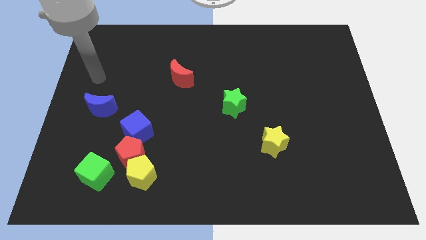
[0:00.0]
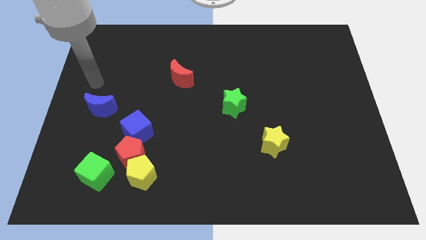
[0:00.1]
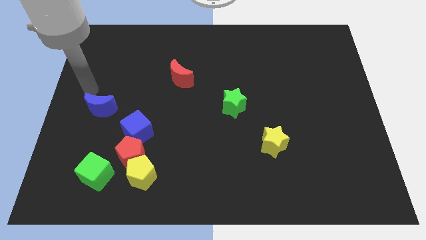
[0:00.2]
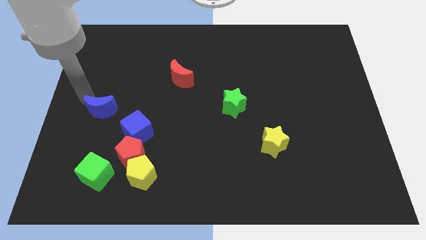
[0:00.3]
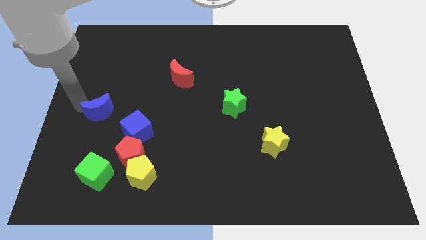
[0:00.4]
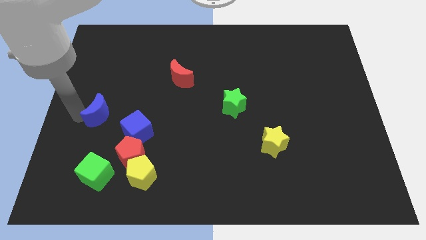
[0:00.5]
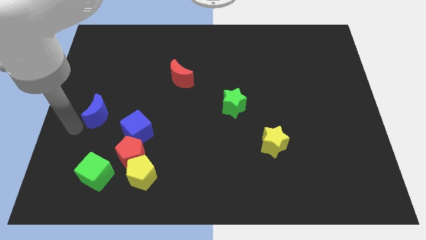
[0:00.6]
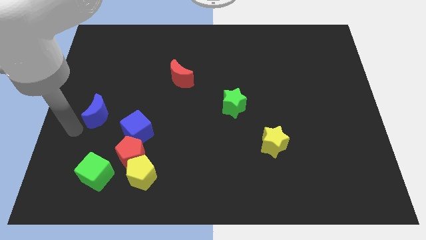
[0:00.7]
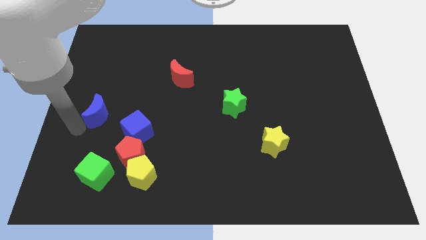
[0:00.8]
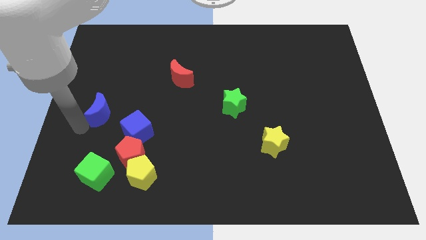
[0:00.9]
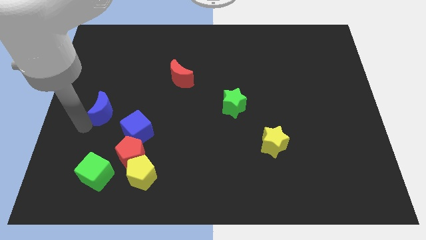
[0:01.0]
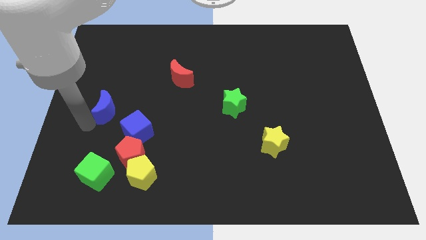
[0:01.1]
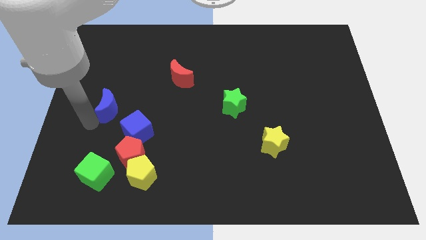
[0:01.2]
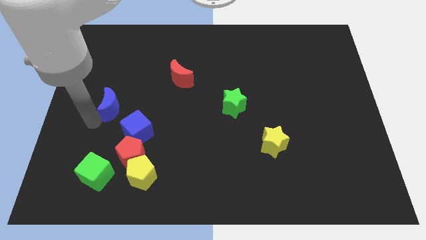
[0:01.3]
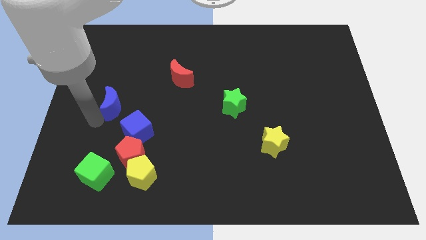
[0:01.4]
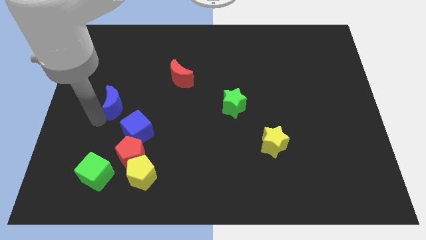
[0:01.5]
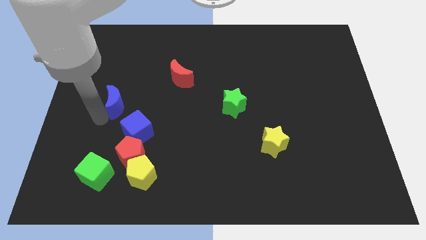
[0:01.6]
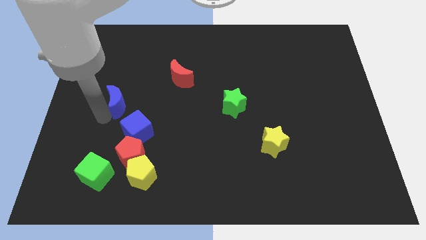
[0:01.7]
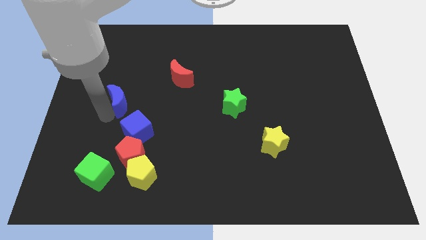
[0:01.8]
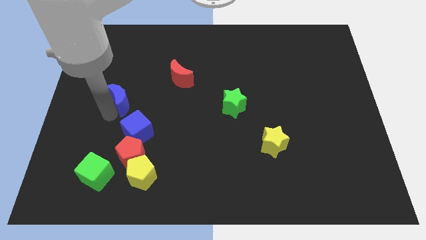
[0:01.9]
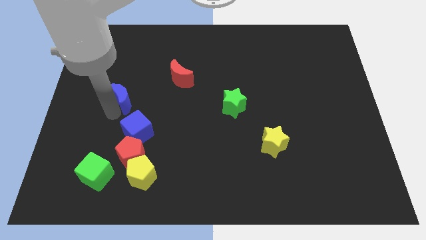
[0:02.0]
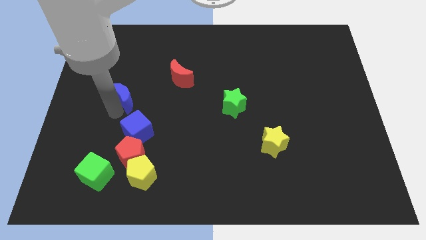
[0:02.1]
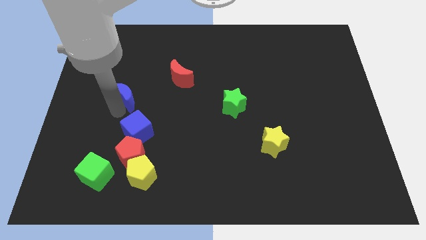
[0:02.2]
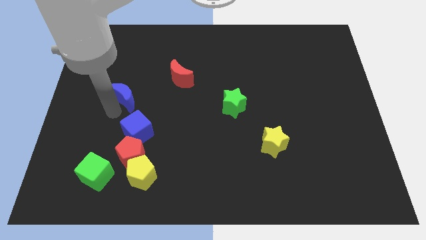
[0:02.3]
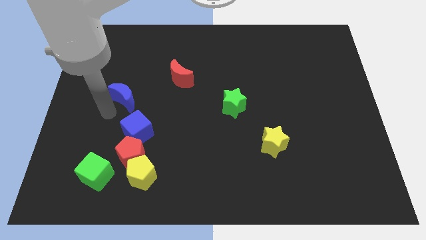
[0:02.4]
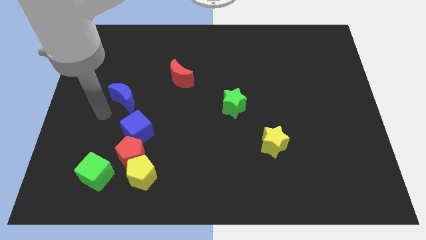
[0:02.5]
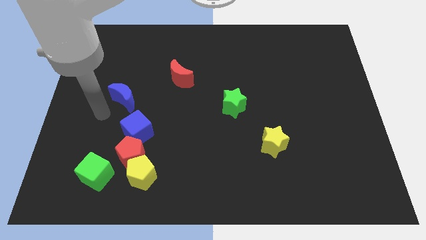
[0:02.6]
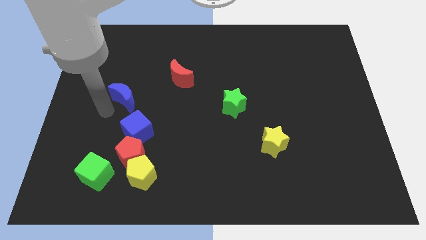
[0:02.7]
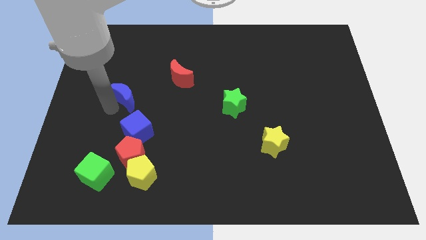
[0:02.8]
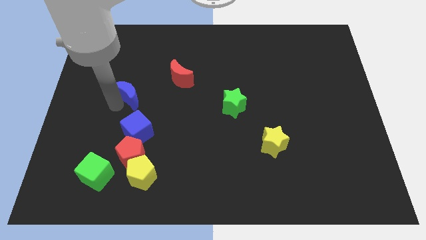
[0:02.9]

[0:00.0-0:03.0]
push the blue moon upwards and to the right slightly

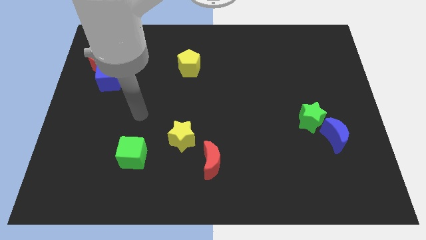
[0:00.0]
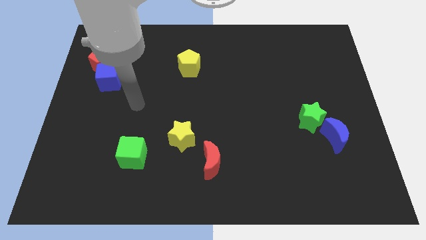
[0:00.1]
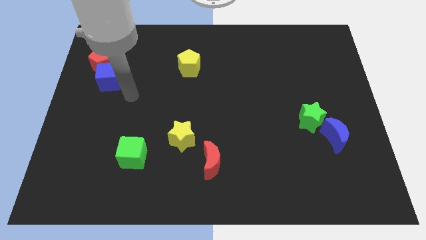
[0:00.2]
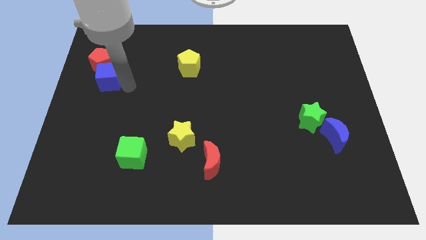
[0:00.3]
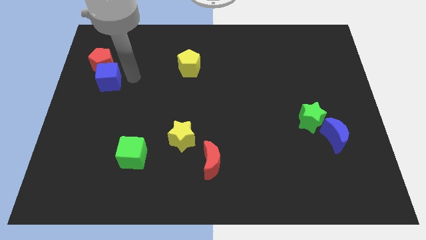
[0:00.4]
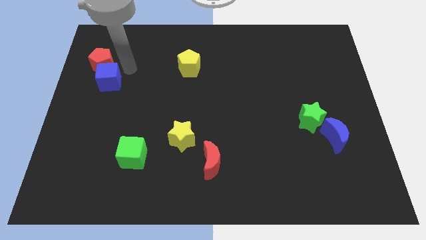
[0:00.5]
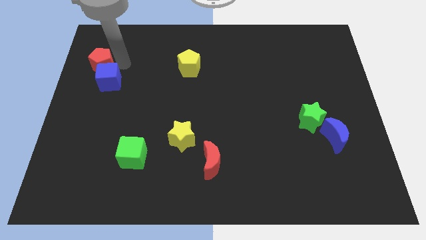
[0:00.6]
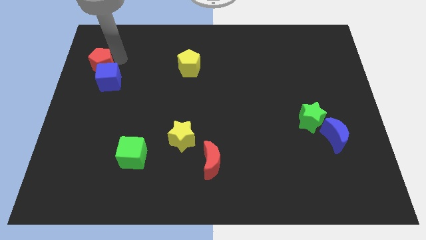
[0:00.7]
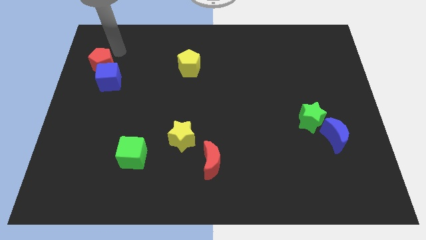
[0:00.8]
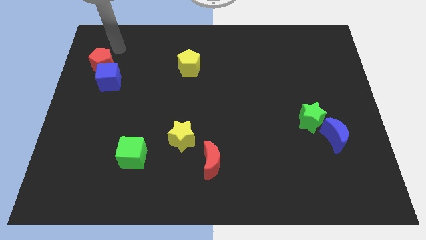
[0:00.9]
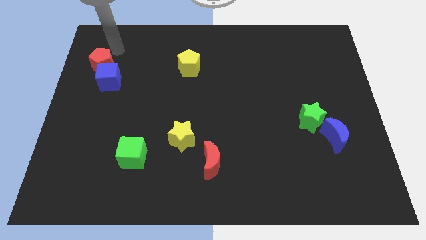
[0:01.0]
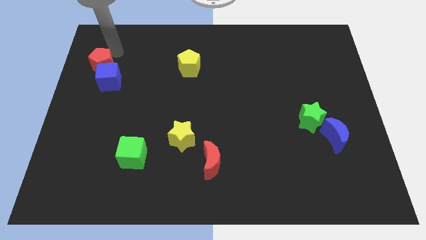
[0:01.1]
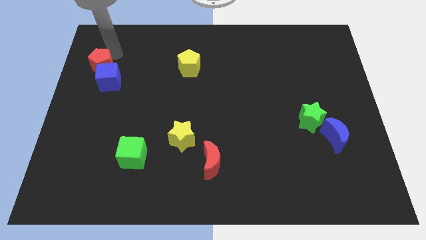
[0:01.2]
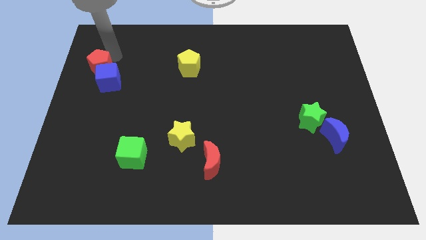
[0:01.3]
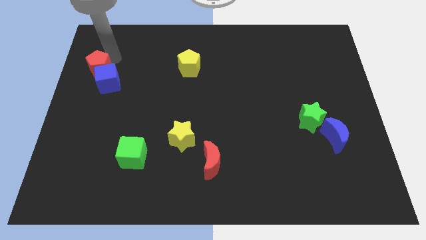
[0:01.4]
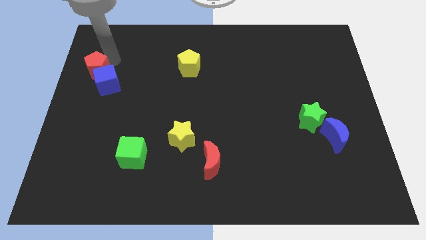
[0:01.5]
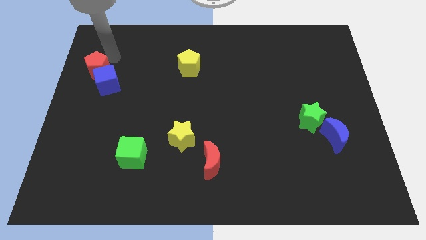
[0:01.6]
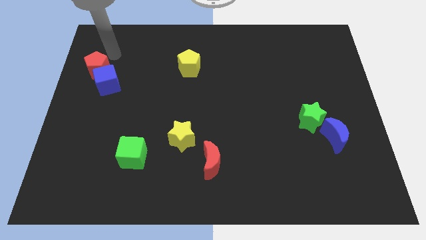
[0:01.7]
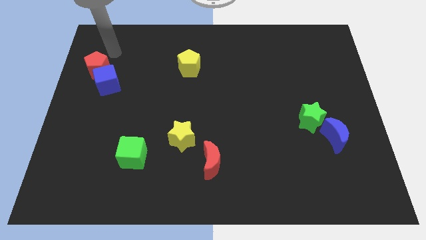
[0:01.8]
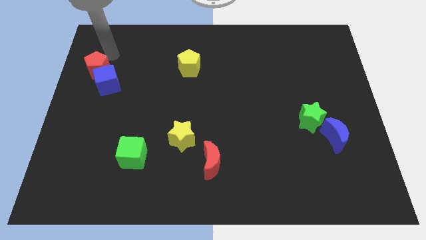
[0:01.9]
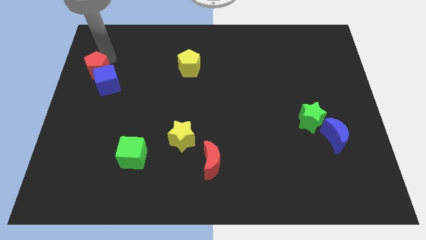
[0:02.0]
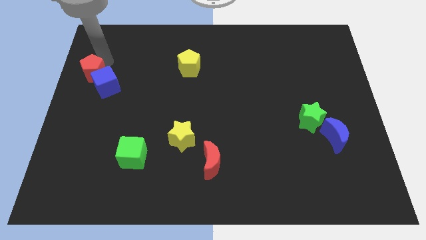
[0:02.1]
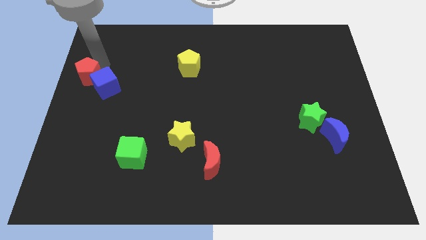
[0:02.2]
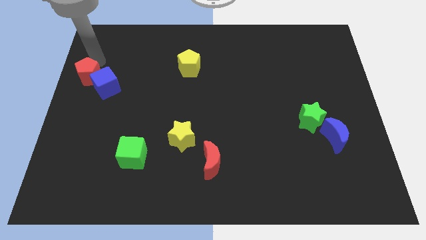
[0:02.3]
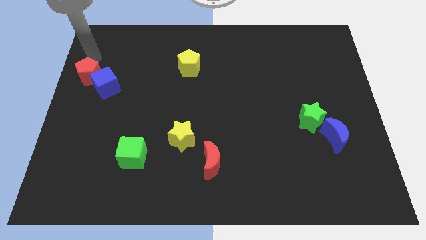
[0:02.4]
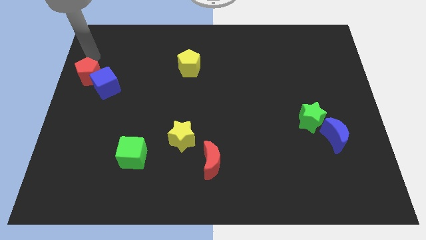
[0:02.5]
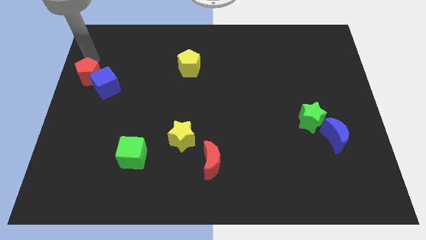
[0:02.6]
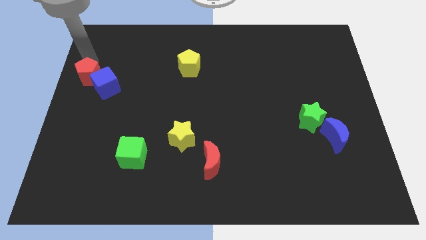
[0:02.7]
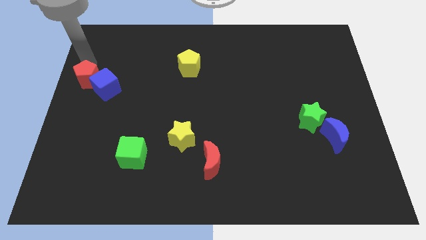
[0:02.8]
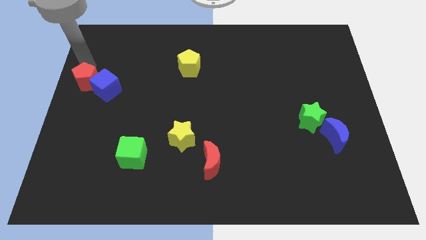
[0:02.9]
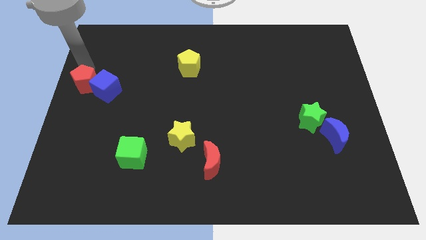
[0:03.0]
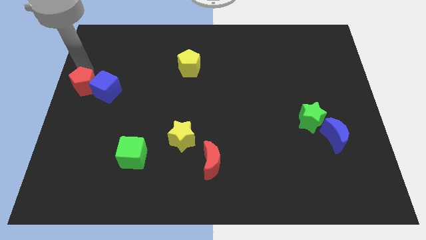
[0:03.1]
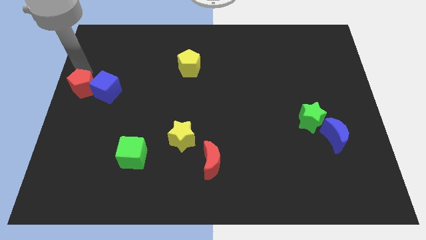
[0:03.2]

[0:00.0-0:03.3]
slightly slide the red pentagon down

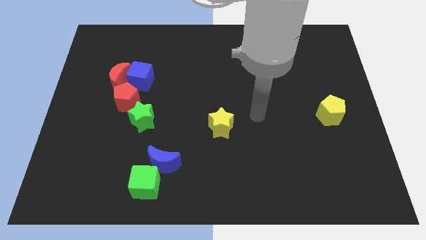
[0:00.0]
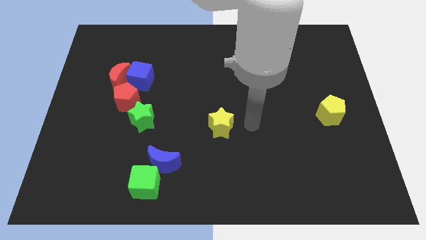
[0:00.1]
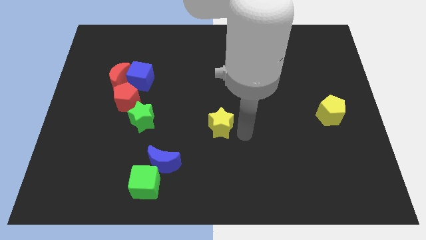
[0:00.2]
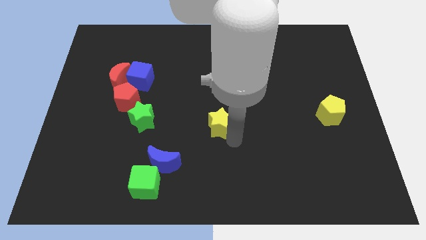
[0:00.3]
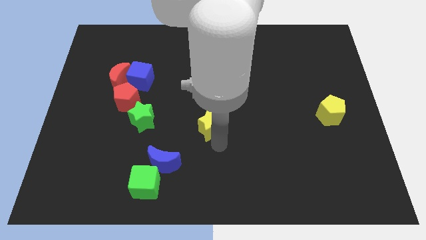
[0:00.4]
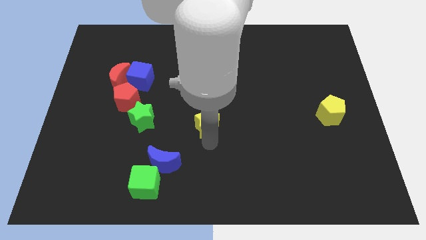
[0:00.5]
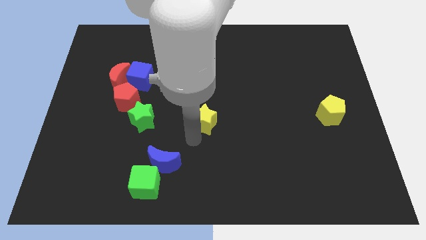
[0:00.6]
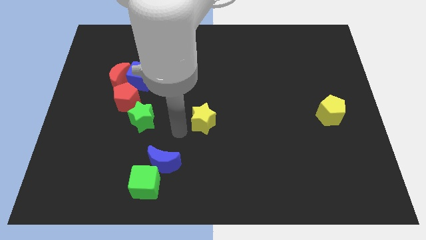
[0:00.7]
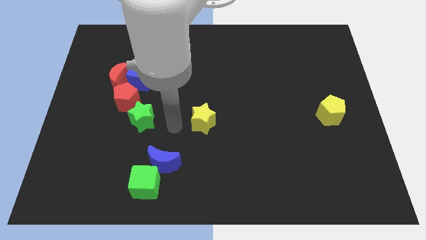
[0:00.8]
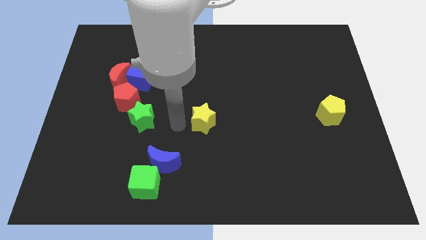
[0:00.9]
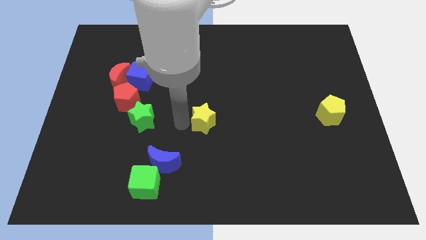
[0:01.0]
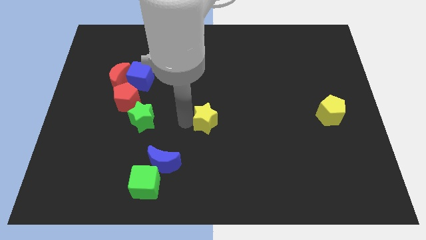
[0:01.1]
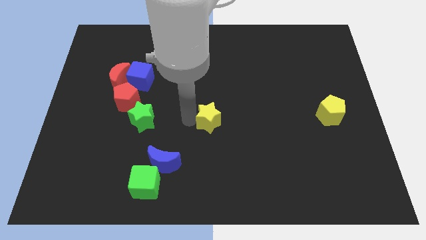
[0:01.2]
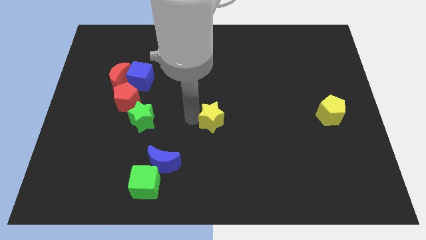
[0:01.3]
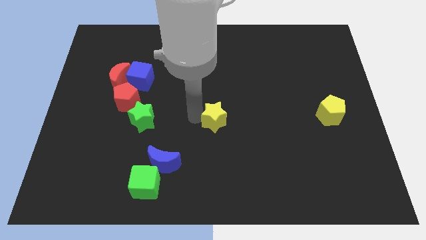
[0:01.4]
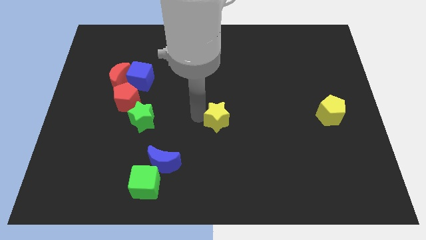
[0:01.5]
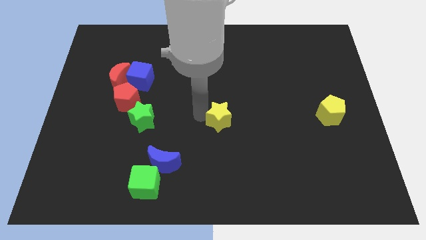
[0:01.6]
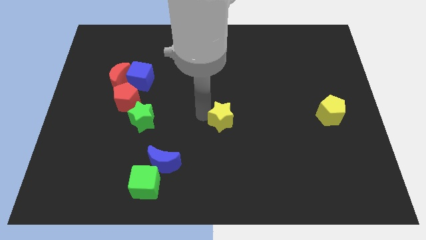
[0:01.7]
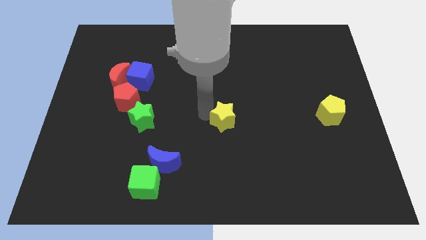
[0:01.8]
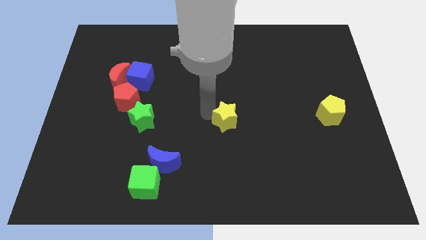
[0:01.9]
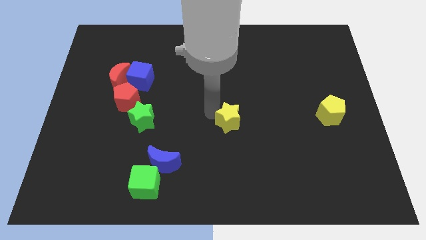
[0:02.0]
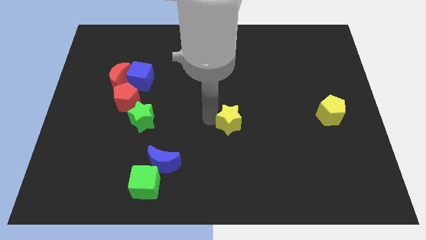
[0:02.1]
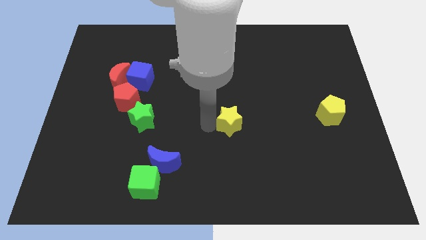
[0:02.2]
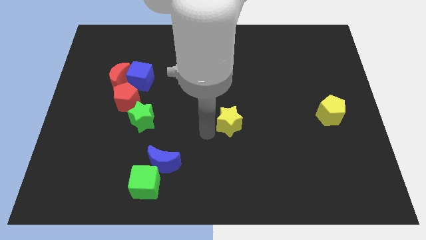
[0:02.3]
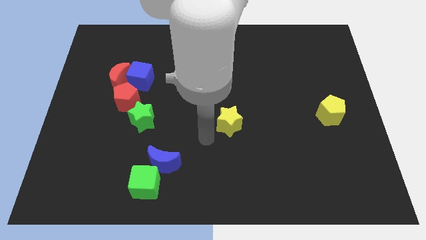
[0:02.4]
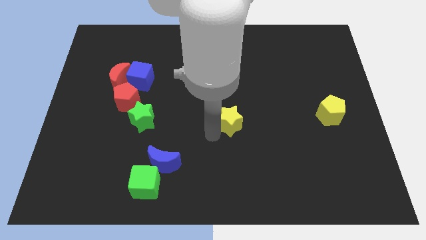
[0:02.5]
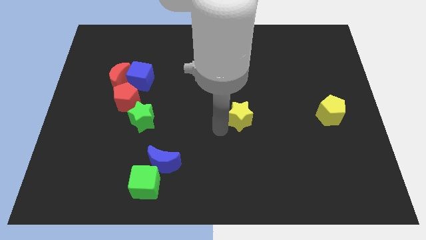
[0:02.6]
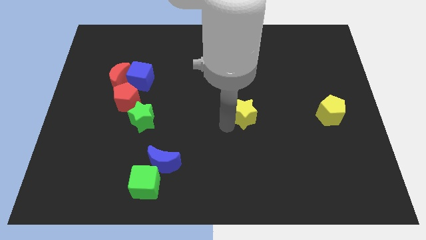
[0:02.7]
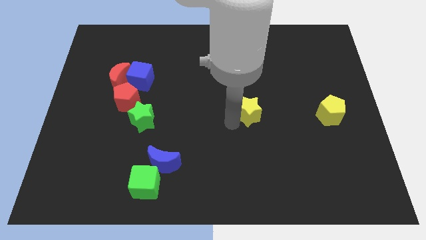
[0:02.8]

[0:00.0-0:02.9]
slightly slide the yellow star up and then to the right
